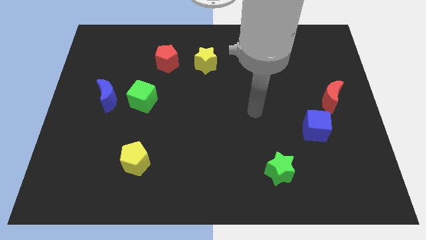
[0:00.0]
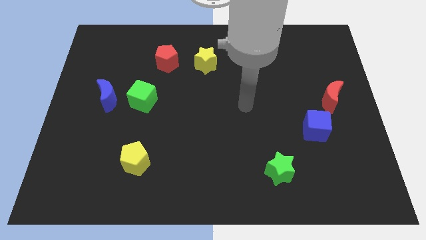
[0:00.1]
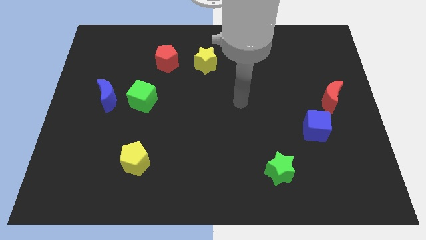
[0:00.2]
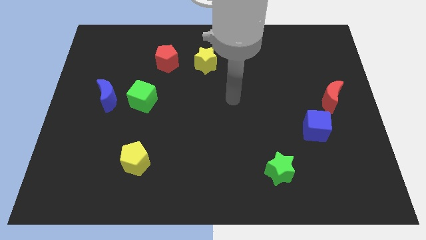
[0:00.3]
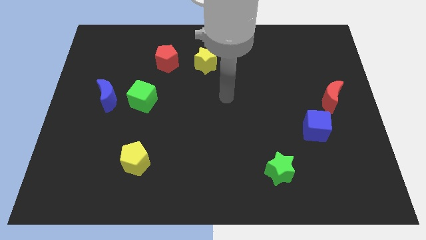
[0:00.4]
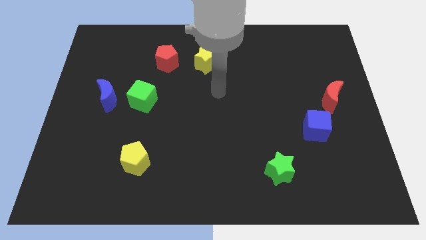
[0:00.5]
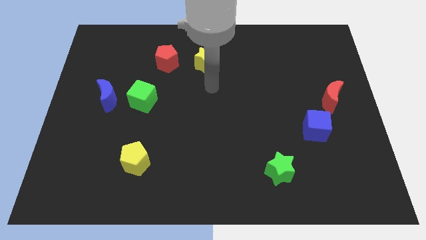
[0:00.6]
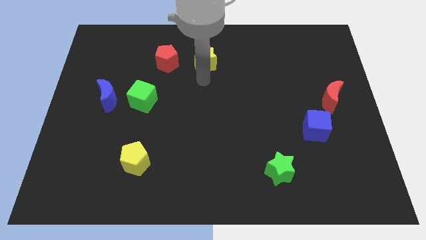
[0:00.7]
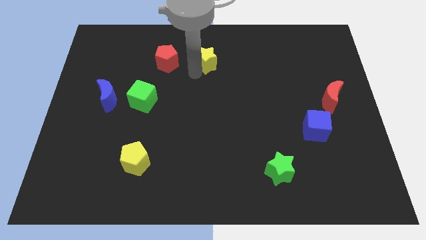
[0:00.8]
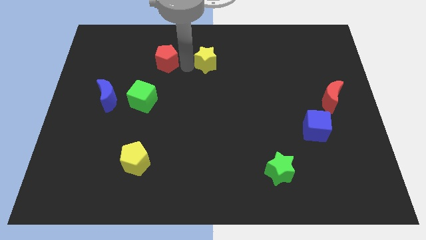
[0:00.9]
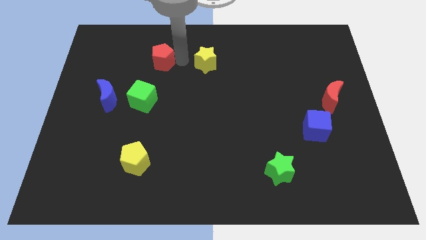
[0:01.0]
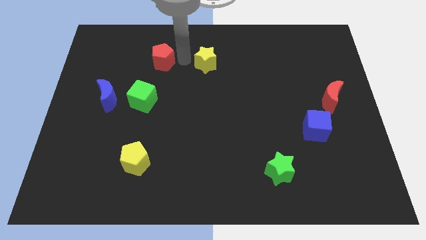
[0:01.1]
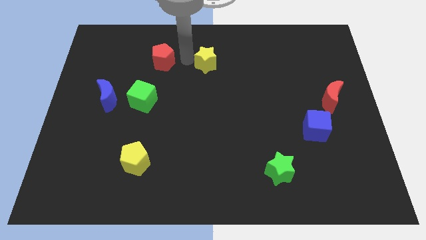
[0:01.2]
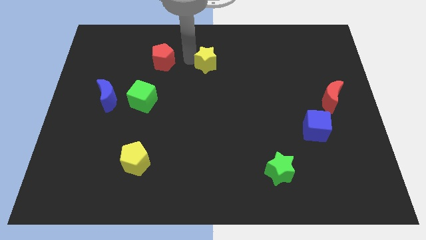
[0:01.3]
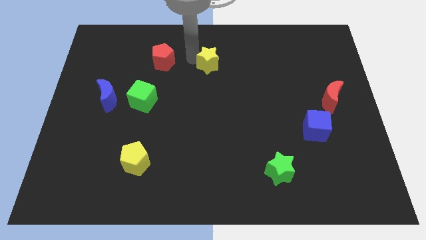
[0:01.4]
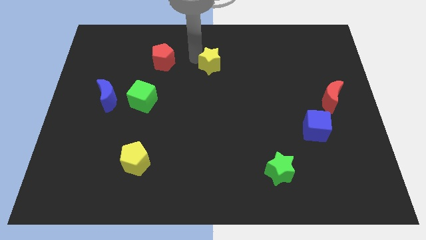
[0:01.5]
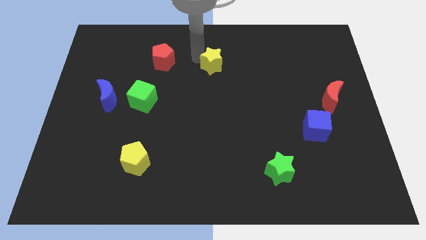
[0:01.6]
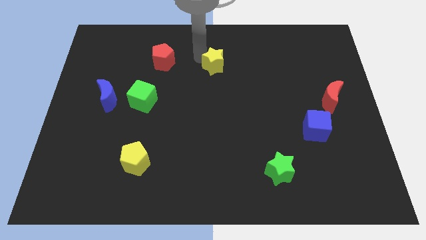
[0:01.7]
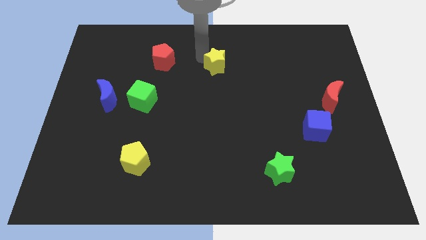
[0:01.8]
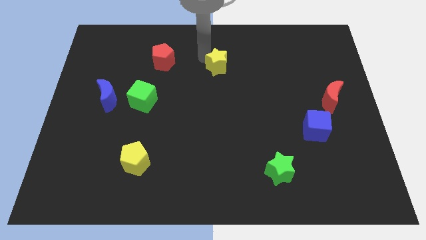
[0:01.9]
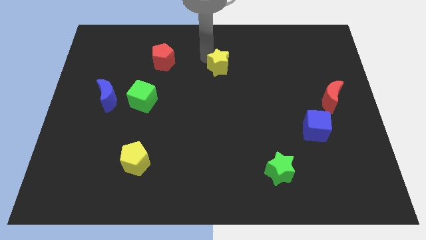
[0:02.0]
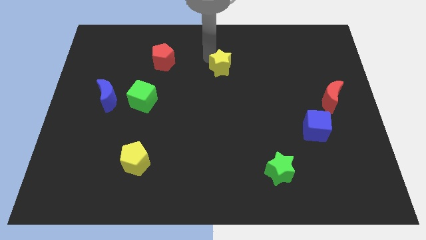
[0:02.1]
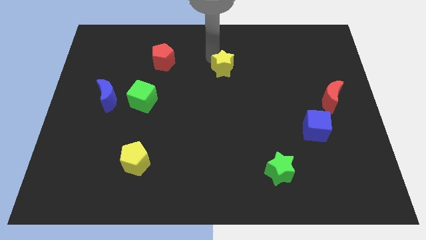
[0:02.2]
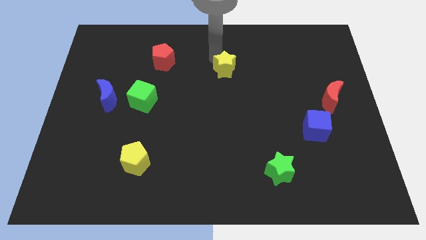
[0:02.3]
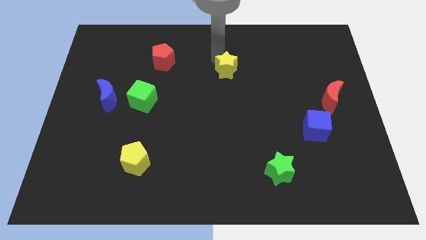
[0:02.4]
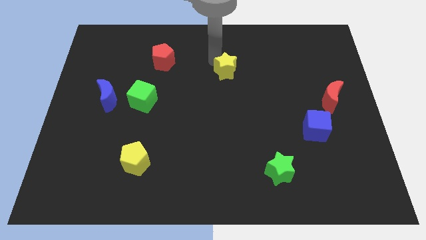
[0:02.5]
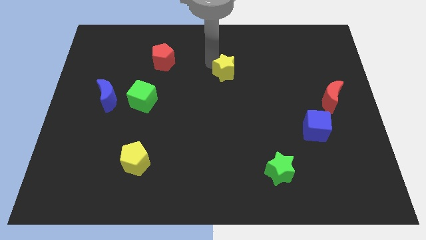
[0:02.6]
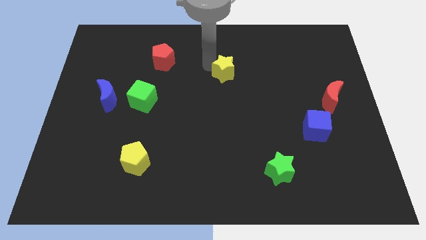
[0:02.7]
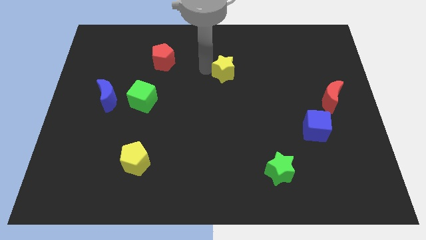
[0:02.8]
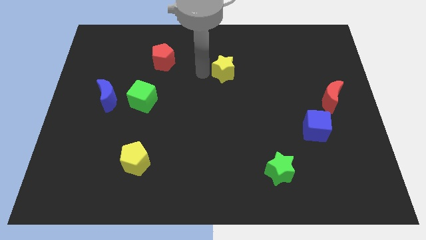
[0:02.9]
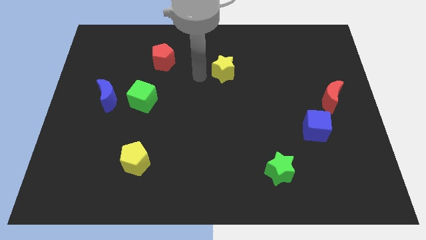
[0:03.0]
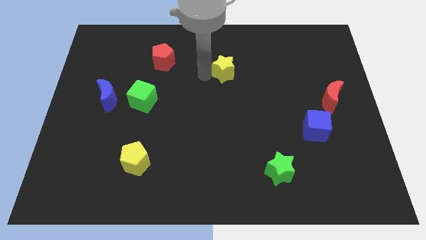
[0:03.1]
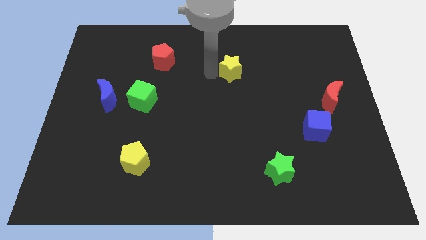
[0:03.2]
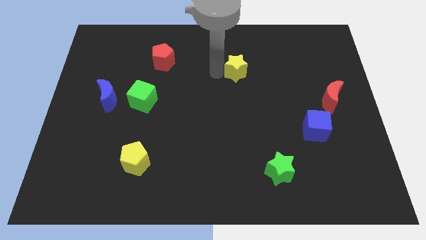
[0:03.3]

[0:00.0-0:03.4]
move the yellow star right somewhat

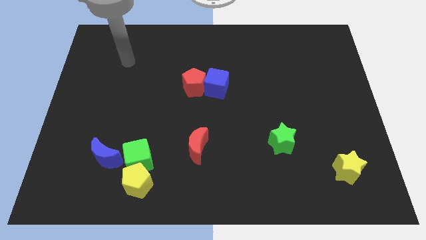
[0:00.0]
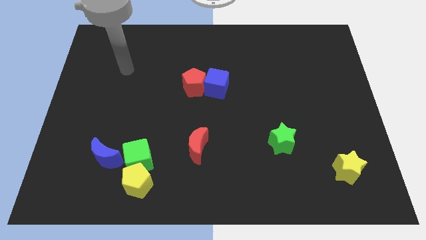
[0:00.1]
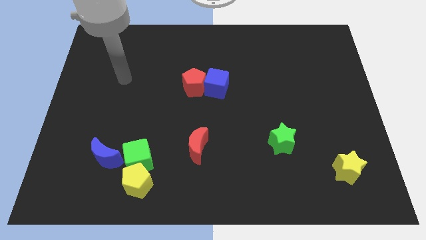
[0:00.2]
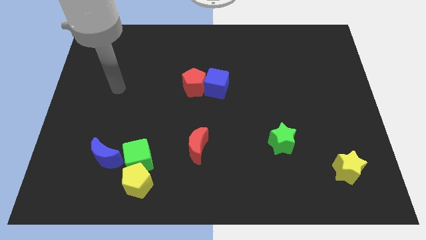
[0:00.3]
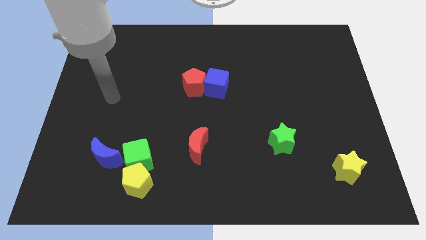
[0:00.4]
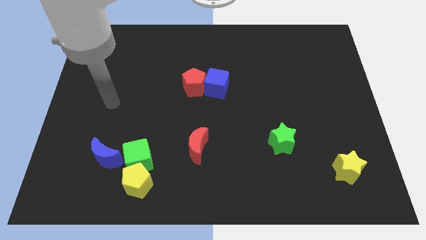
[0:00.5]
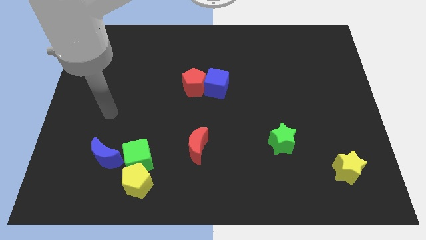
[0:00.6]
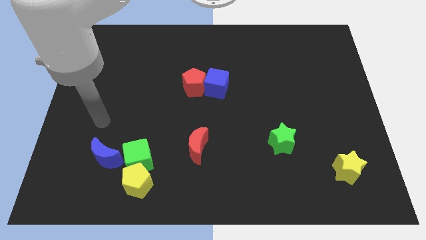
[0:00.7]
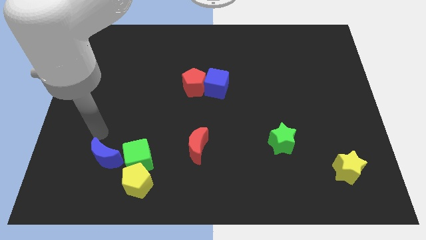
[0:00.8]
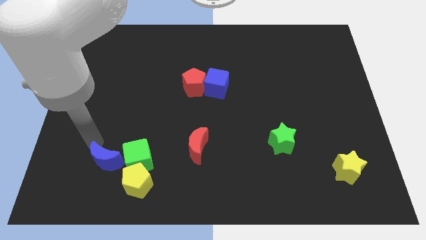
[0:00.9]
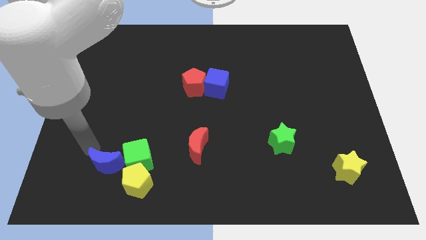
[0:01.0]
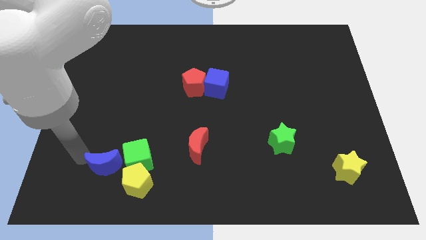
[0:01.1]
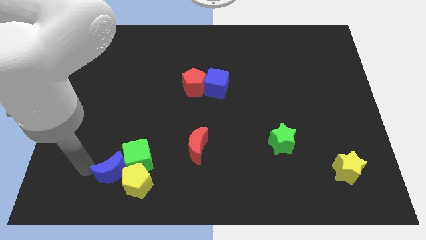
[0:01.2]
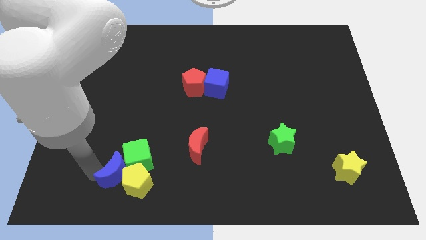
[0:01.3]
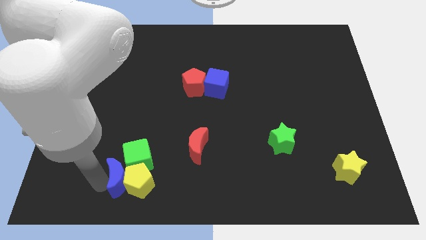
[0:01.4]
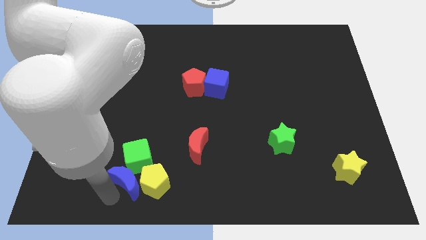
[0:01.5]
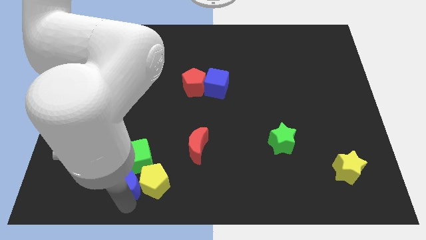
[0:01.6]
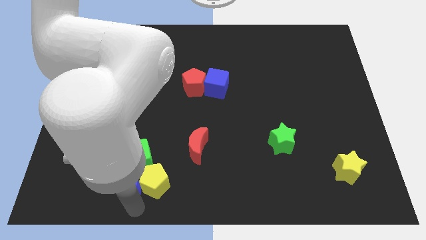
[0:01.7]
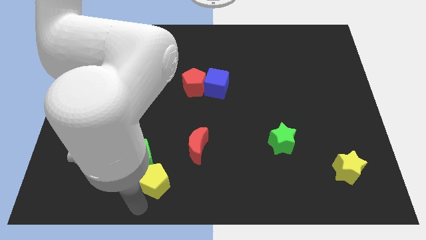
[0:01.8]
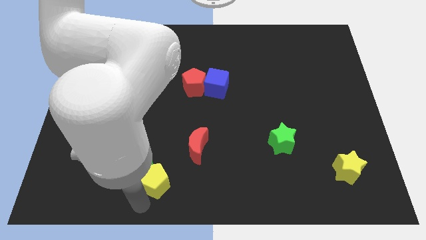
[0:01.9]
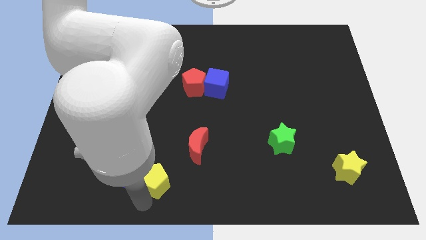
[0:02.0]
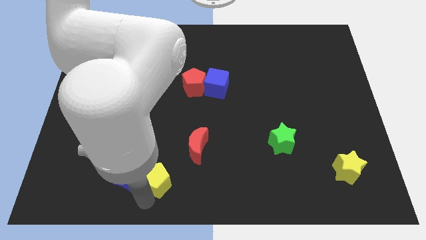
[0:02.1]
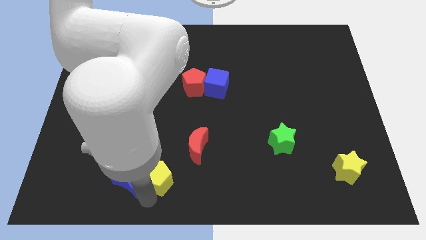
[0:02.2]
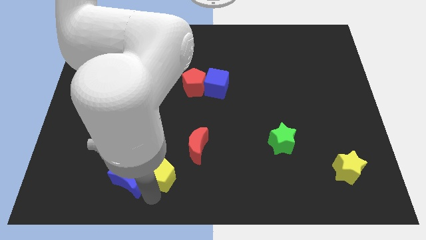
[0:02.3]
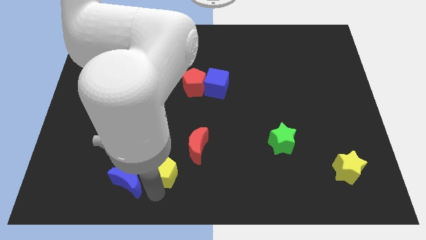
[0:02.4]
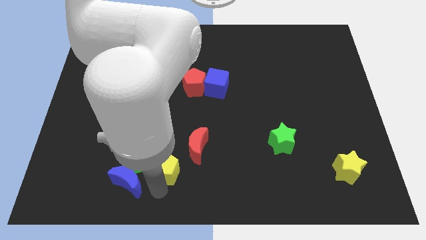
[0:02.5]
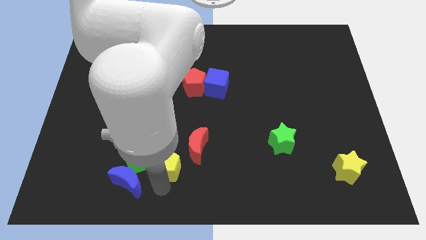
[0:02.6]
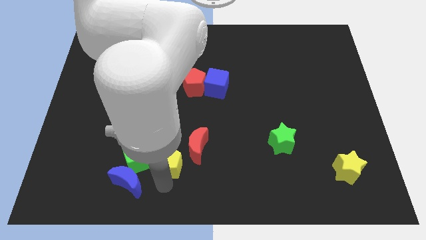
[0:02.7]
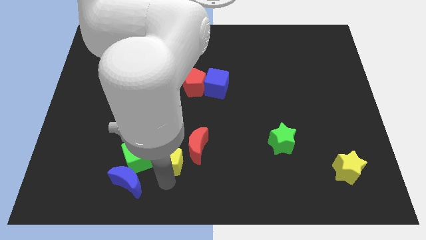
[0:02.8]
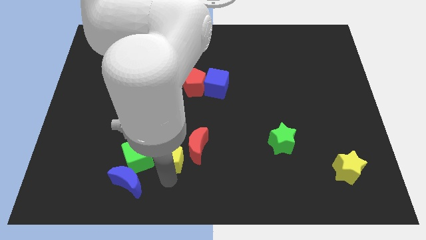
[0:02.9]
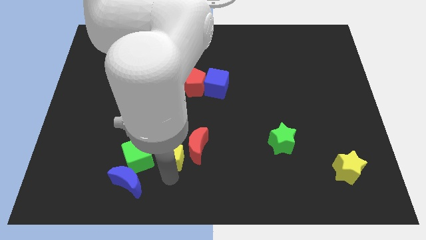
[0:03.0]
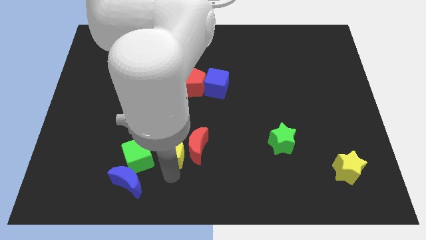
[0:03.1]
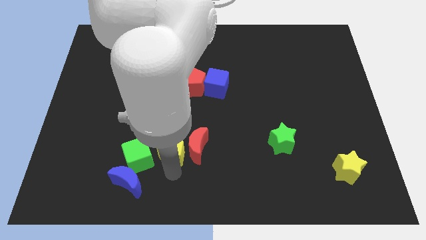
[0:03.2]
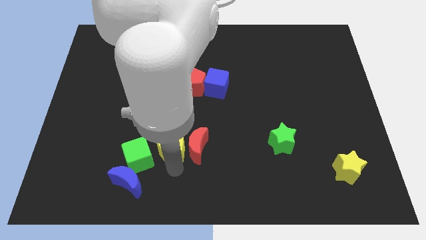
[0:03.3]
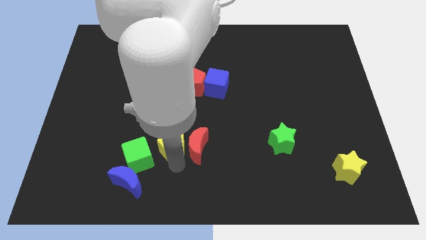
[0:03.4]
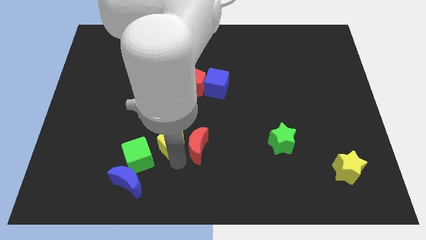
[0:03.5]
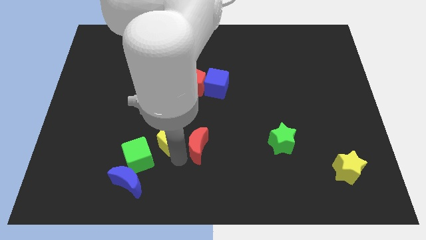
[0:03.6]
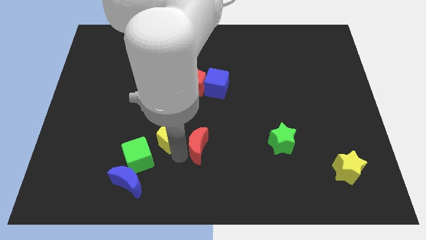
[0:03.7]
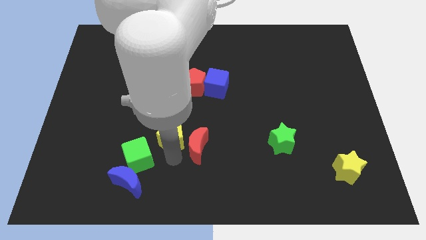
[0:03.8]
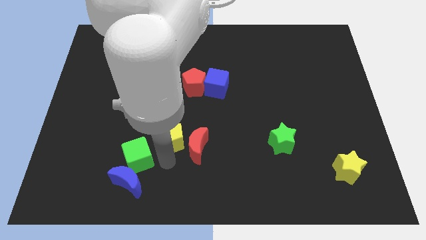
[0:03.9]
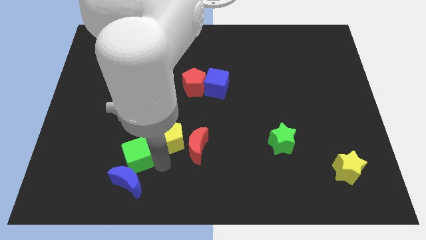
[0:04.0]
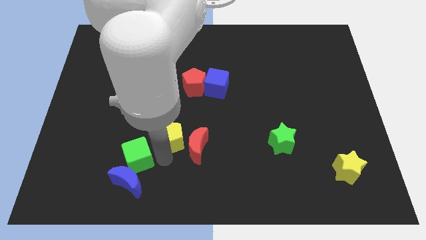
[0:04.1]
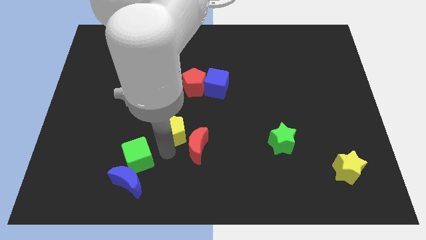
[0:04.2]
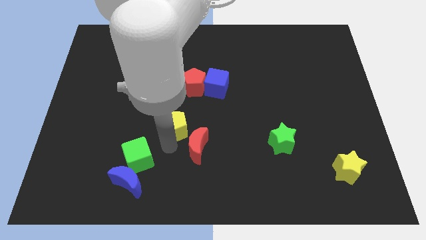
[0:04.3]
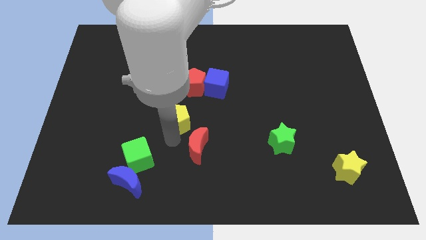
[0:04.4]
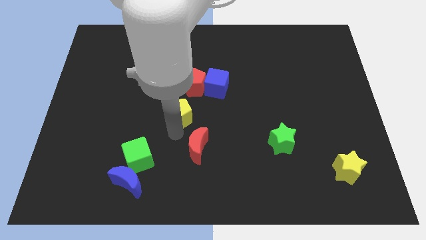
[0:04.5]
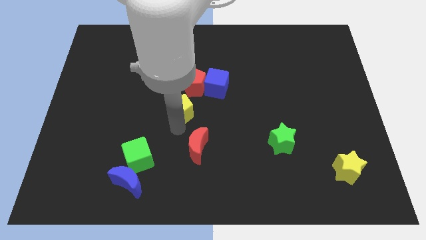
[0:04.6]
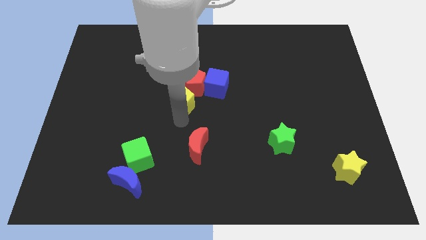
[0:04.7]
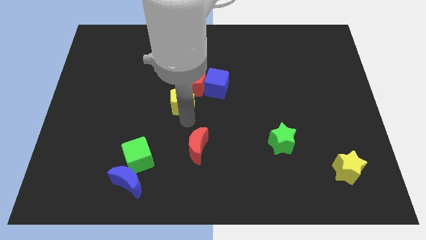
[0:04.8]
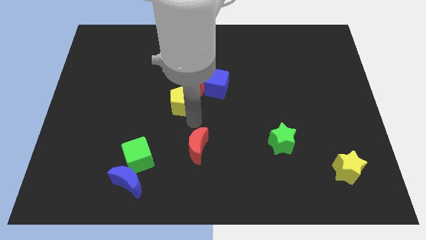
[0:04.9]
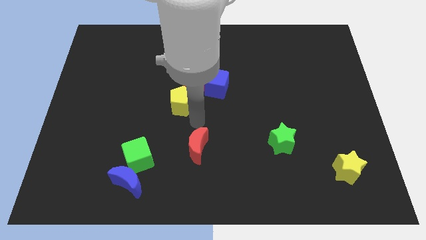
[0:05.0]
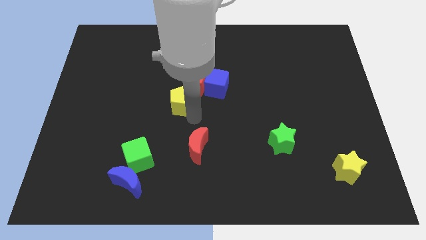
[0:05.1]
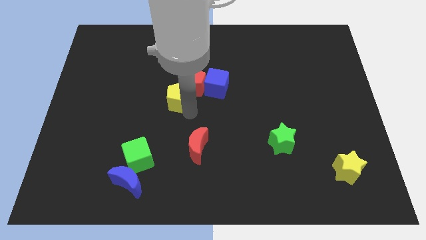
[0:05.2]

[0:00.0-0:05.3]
slide the yellow pentagon upwards
